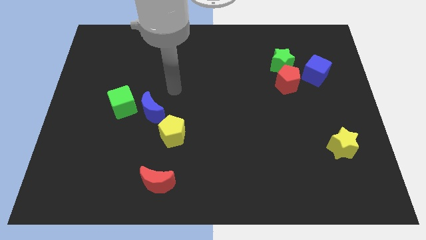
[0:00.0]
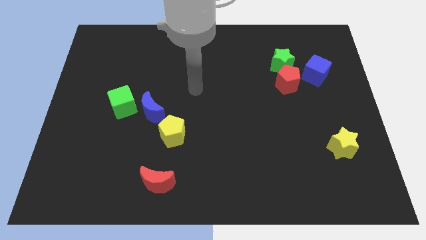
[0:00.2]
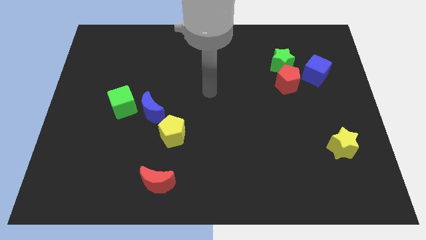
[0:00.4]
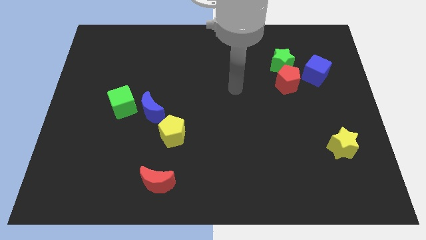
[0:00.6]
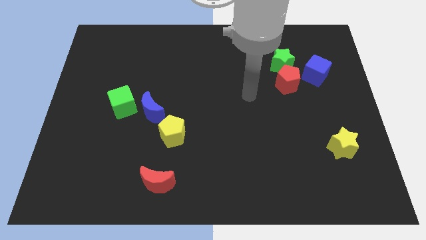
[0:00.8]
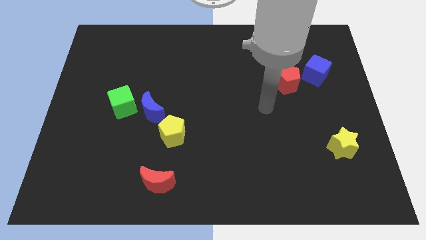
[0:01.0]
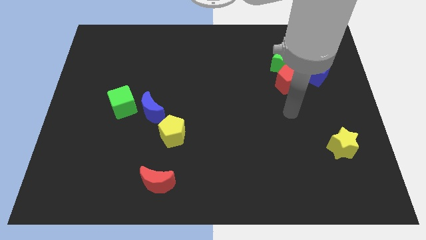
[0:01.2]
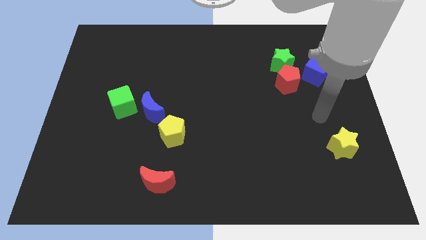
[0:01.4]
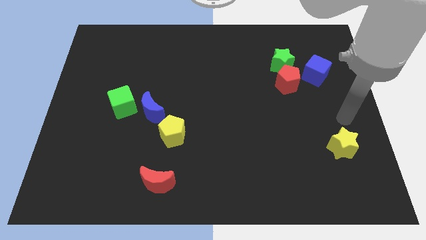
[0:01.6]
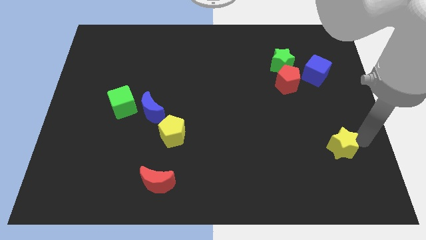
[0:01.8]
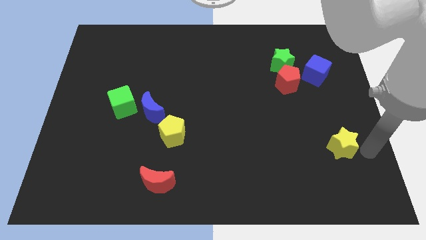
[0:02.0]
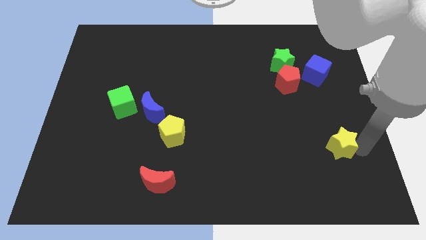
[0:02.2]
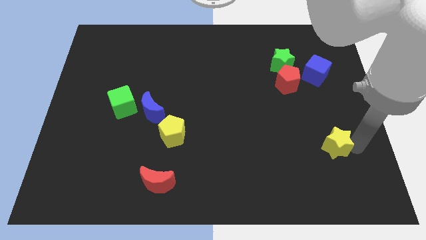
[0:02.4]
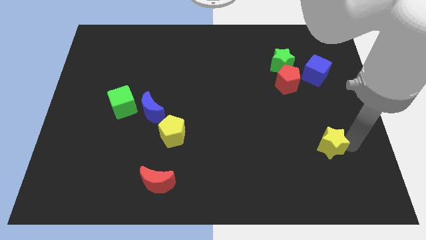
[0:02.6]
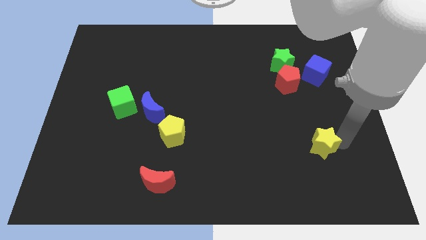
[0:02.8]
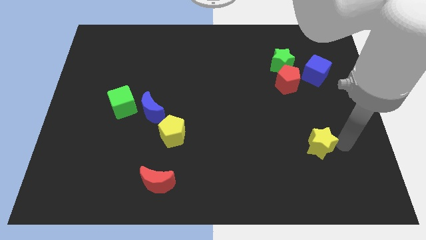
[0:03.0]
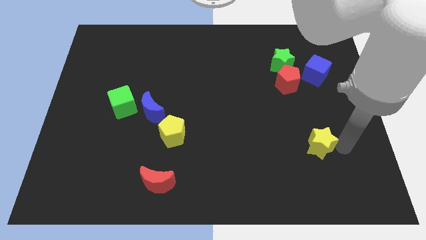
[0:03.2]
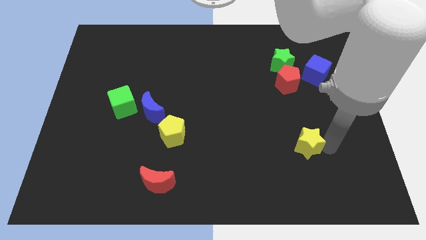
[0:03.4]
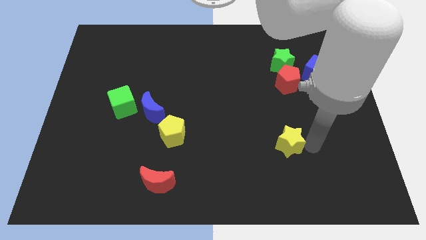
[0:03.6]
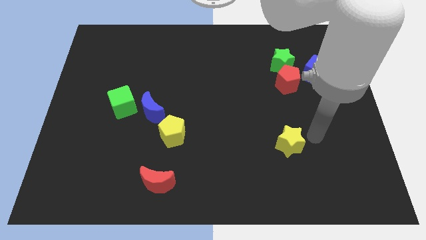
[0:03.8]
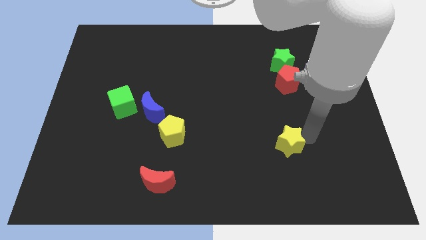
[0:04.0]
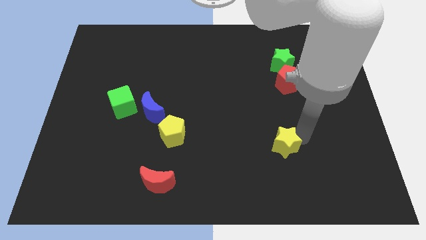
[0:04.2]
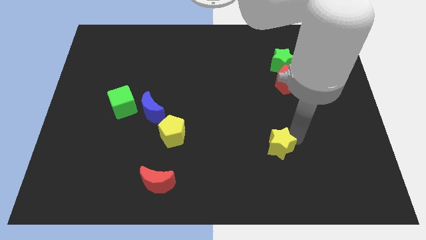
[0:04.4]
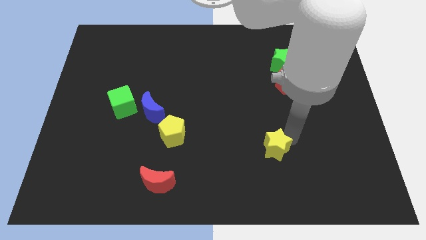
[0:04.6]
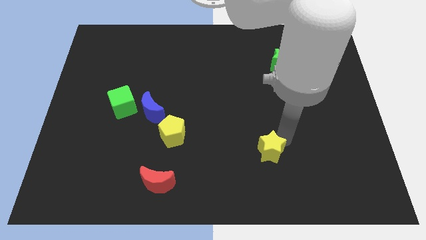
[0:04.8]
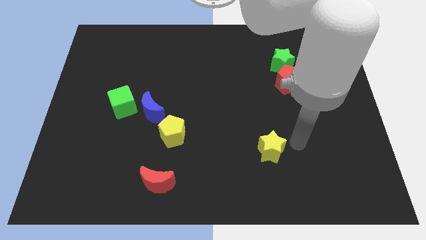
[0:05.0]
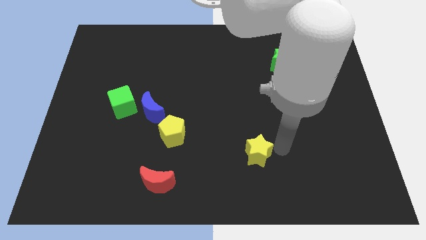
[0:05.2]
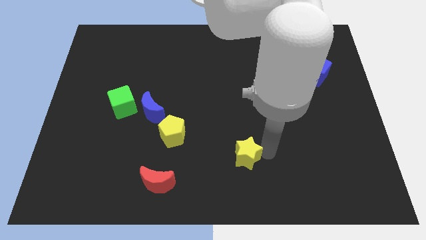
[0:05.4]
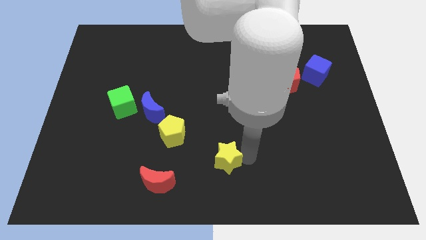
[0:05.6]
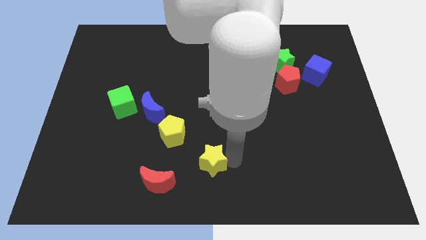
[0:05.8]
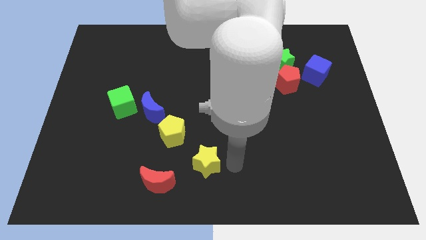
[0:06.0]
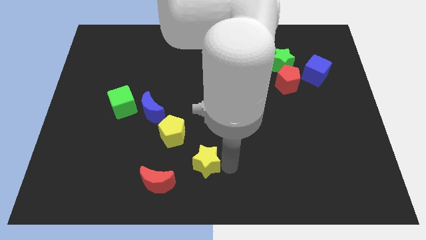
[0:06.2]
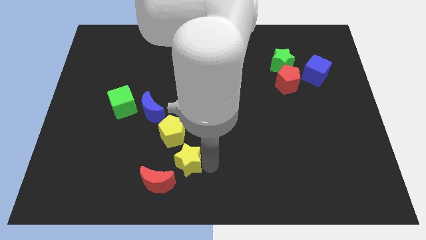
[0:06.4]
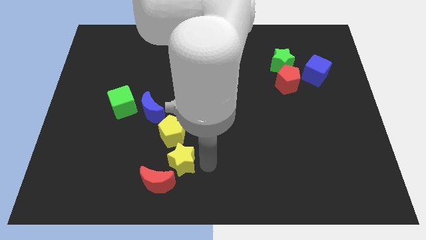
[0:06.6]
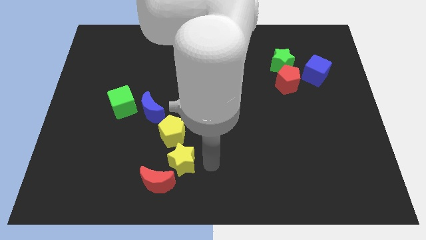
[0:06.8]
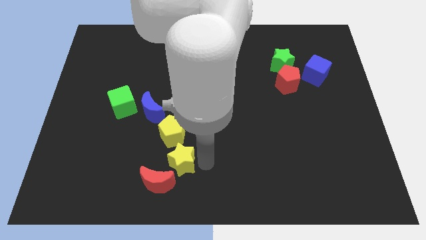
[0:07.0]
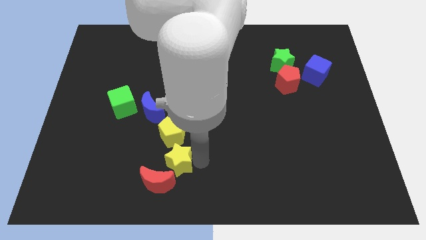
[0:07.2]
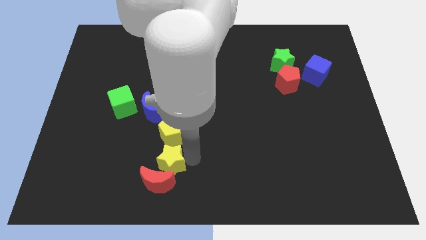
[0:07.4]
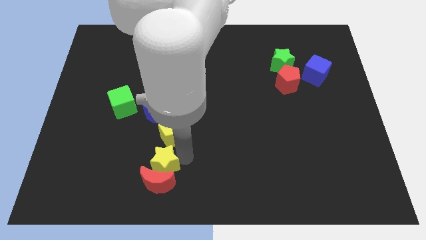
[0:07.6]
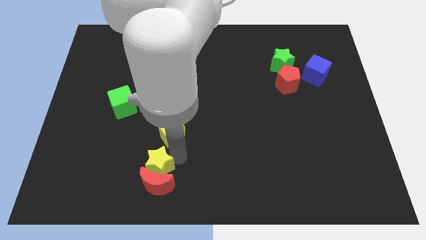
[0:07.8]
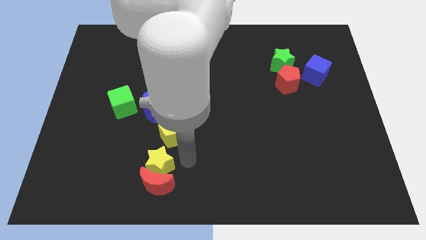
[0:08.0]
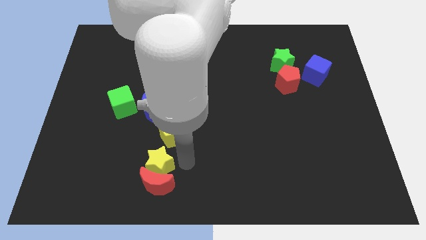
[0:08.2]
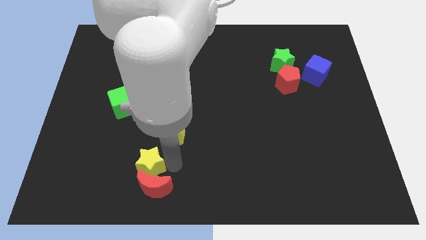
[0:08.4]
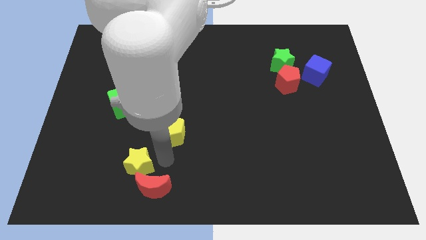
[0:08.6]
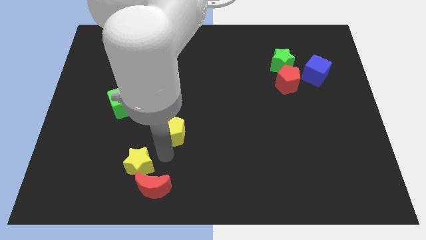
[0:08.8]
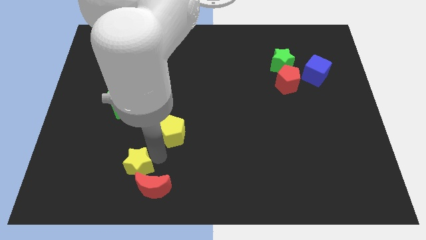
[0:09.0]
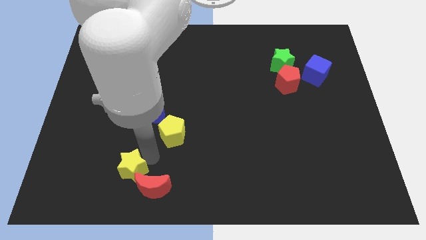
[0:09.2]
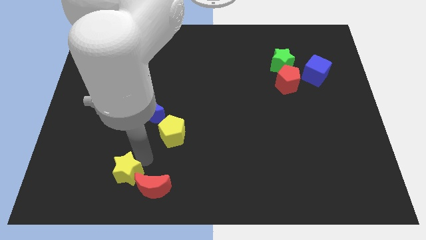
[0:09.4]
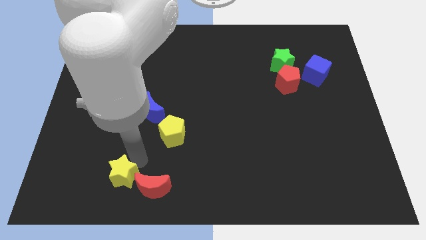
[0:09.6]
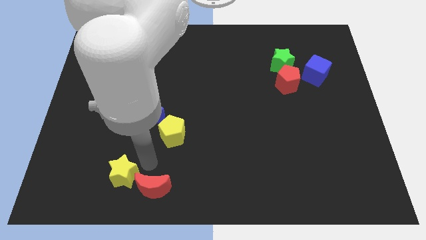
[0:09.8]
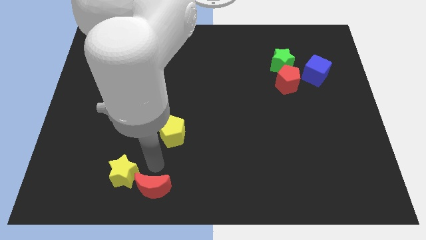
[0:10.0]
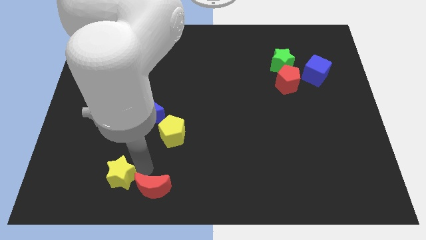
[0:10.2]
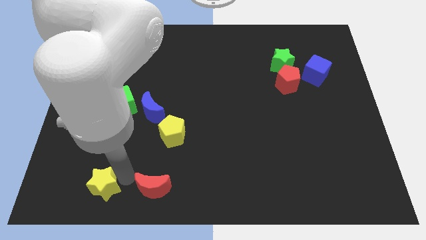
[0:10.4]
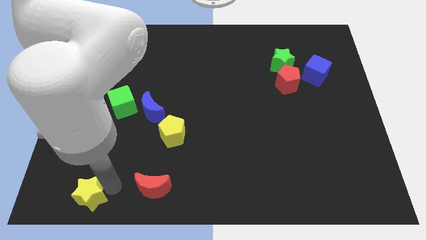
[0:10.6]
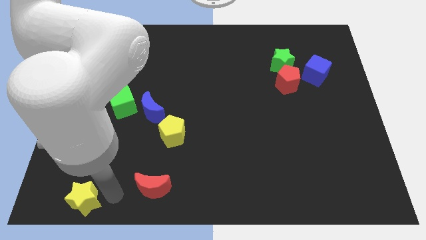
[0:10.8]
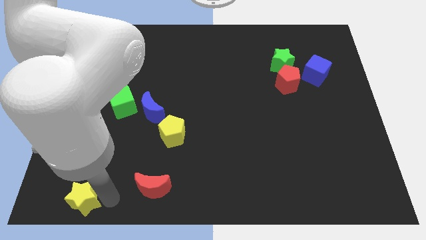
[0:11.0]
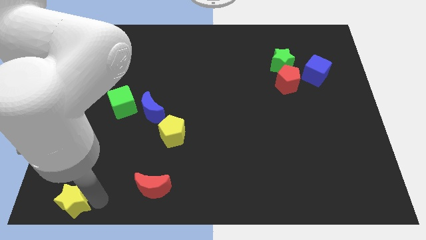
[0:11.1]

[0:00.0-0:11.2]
move the yellow star to the bottom left corner
